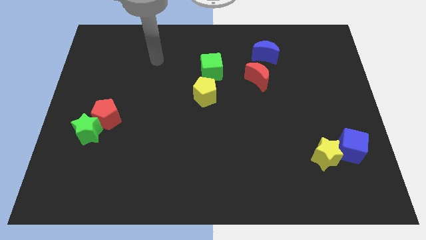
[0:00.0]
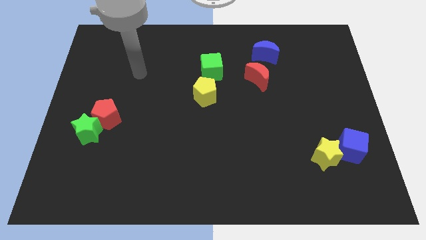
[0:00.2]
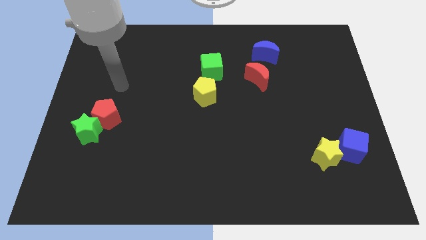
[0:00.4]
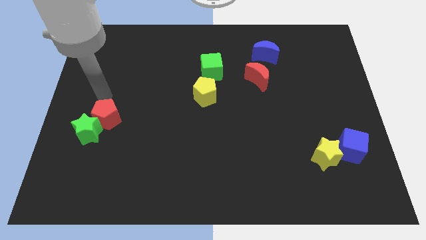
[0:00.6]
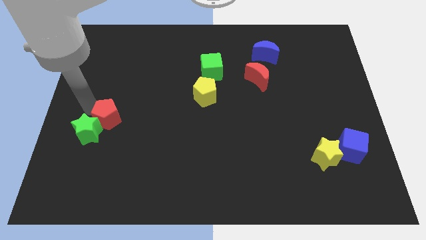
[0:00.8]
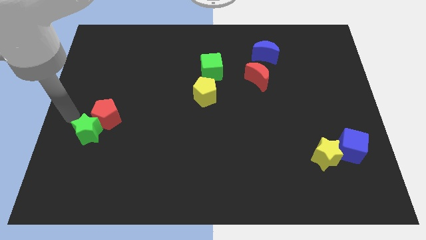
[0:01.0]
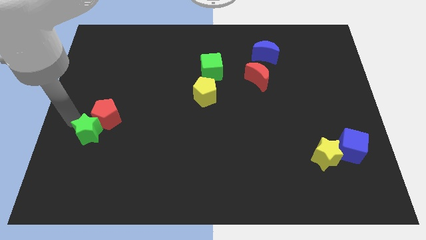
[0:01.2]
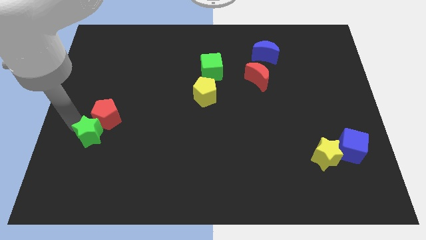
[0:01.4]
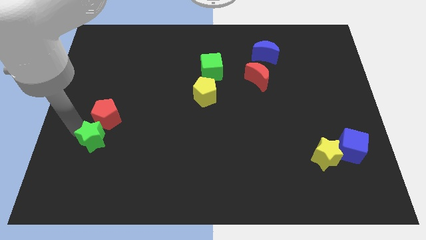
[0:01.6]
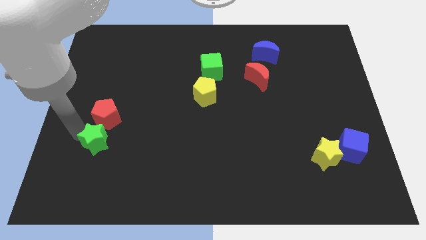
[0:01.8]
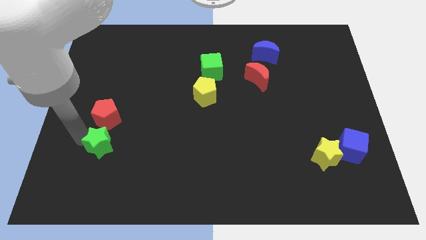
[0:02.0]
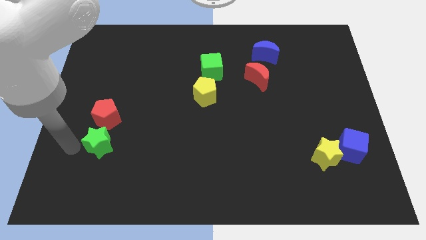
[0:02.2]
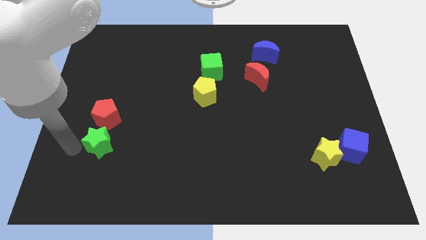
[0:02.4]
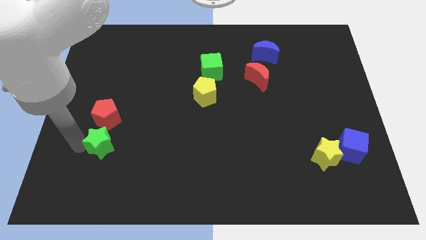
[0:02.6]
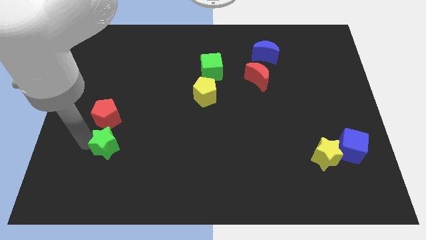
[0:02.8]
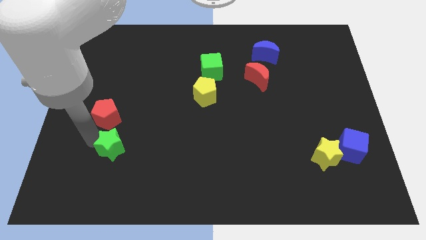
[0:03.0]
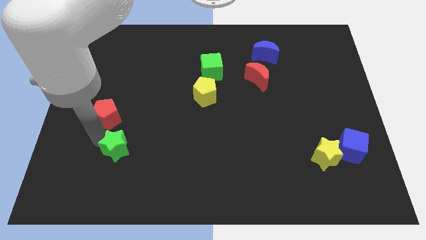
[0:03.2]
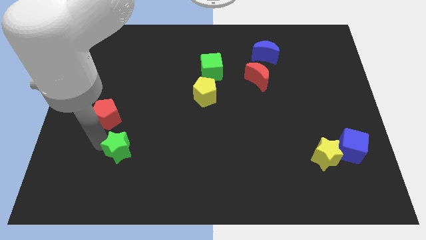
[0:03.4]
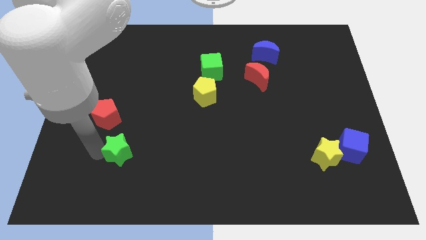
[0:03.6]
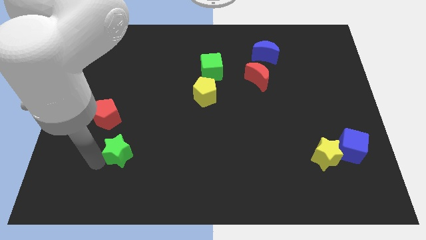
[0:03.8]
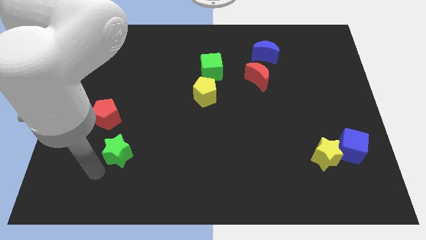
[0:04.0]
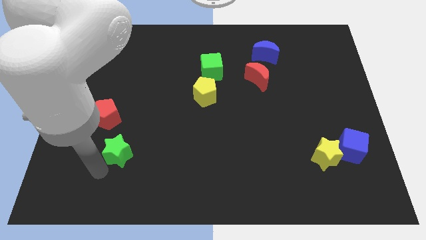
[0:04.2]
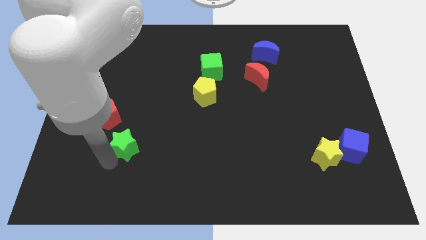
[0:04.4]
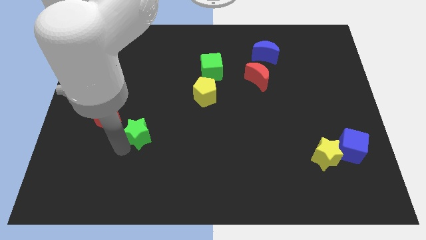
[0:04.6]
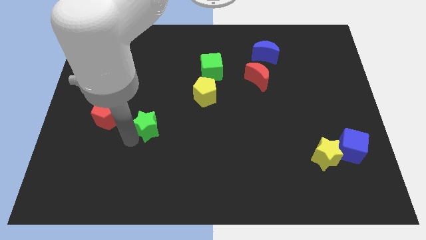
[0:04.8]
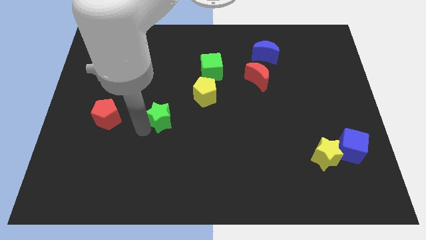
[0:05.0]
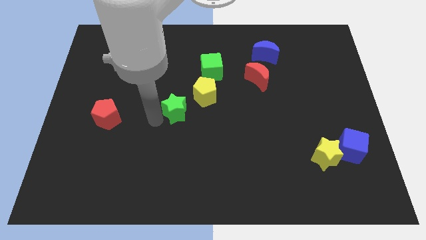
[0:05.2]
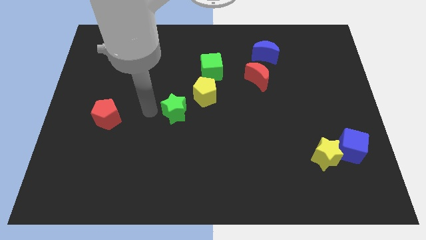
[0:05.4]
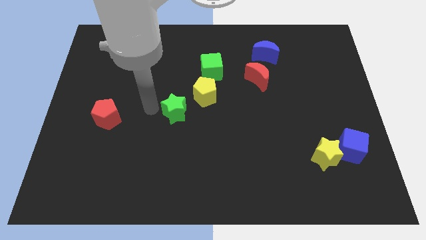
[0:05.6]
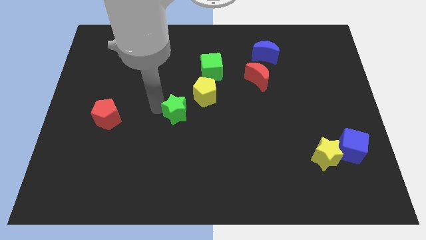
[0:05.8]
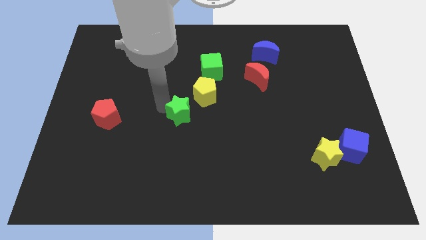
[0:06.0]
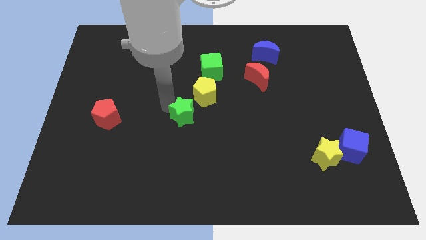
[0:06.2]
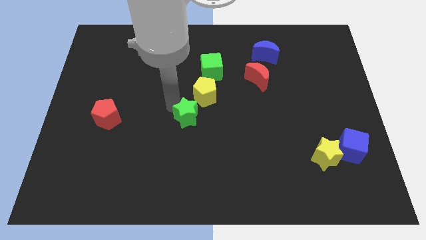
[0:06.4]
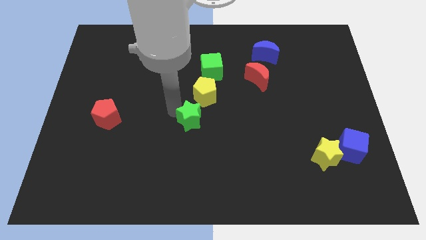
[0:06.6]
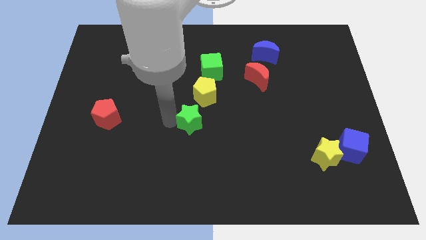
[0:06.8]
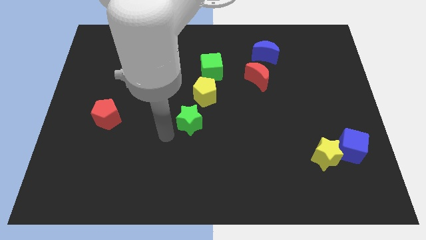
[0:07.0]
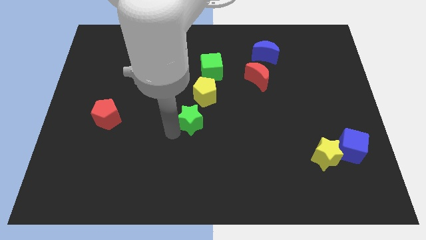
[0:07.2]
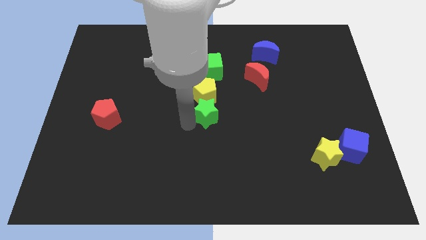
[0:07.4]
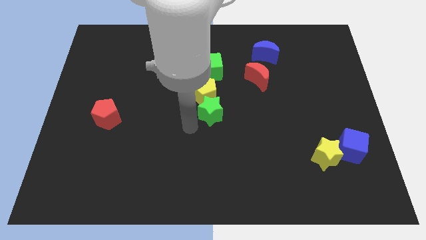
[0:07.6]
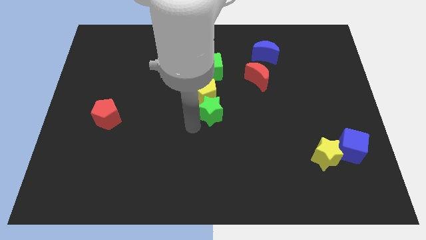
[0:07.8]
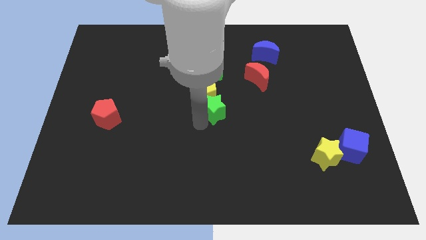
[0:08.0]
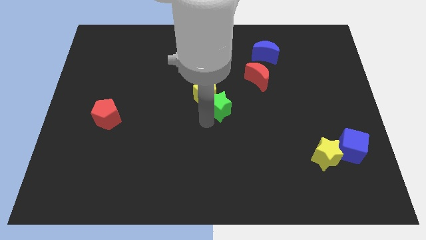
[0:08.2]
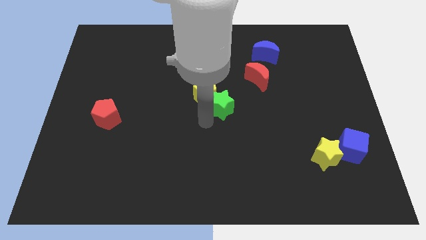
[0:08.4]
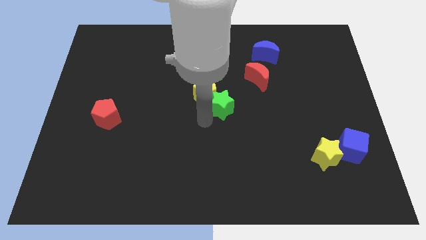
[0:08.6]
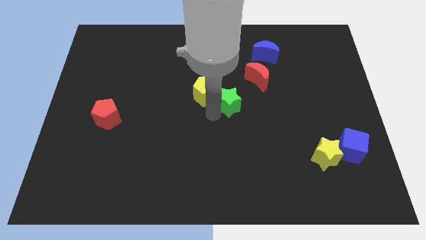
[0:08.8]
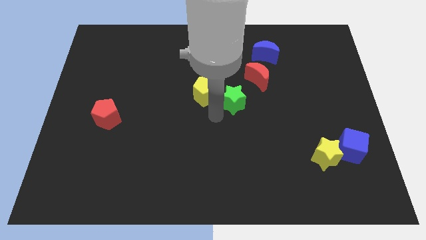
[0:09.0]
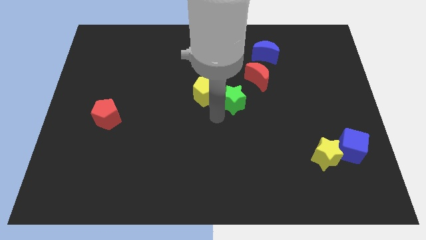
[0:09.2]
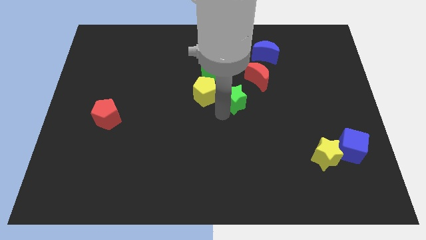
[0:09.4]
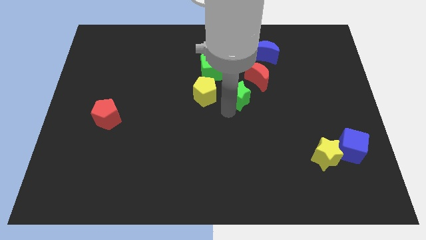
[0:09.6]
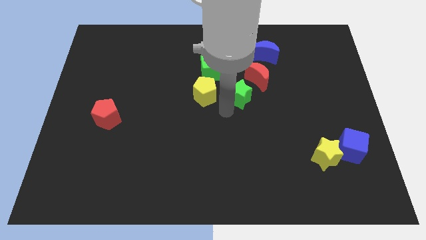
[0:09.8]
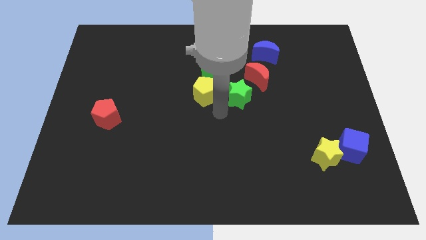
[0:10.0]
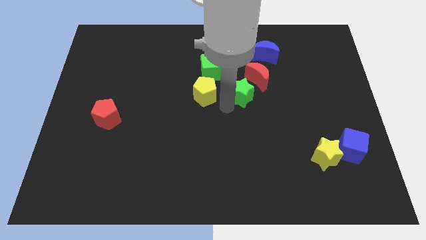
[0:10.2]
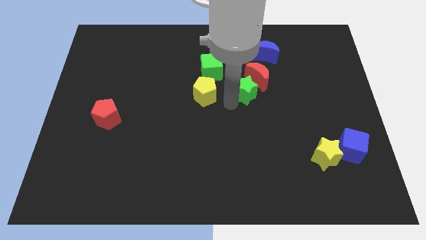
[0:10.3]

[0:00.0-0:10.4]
move the green star next to the red moon

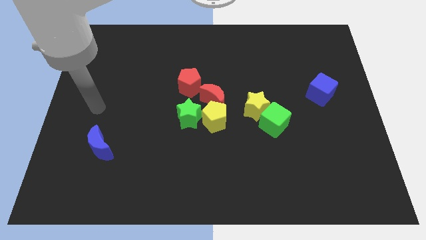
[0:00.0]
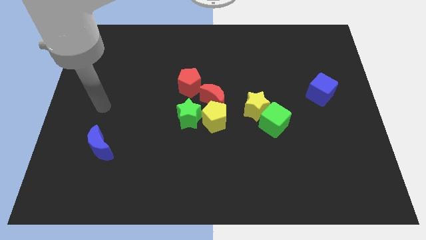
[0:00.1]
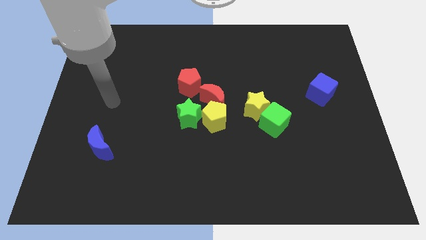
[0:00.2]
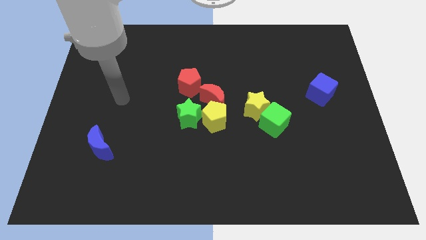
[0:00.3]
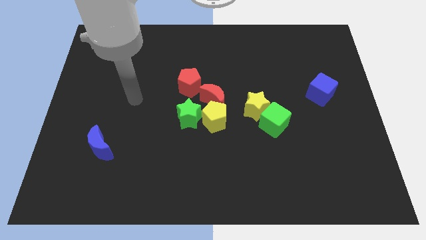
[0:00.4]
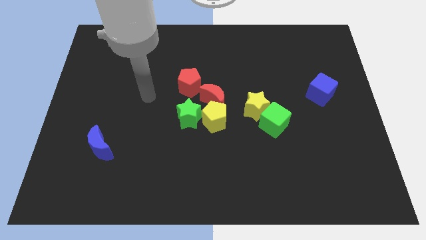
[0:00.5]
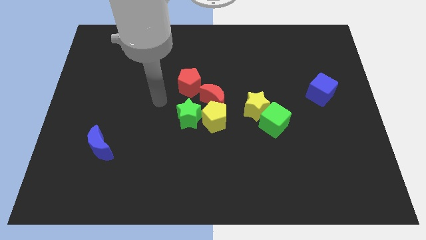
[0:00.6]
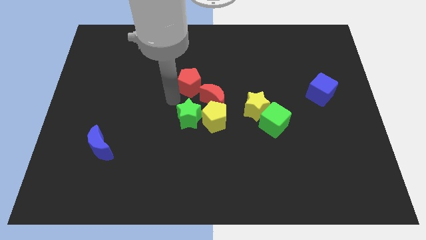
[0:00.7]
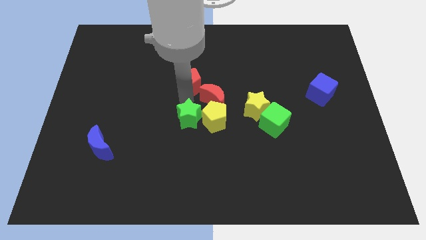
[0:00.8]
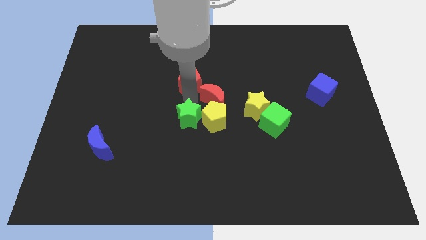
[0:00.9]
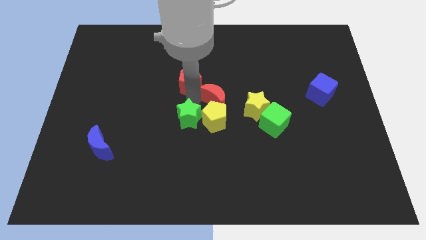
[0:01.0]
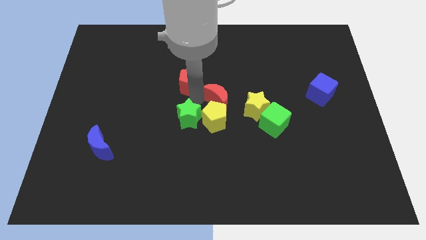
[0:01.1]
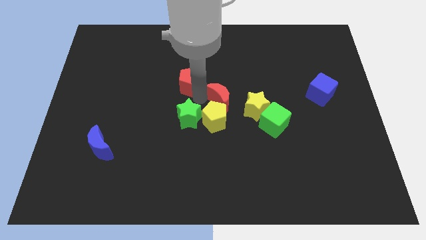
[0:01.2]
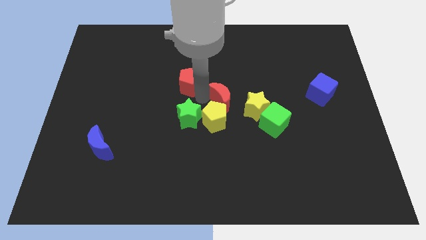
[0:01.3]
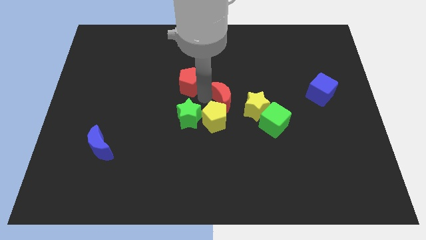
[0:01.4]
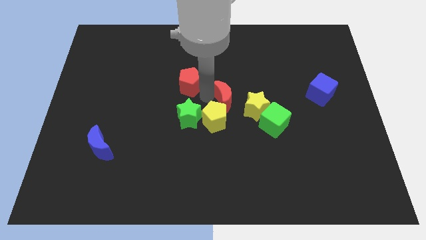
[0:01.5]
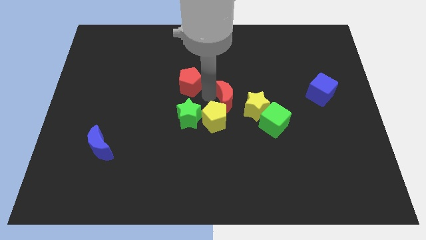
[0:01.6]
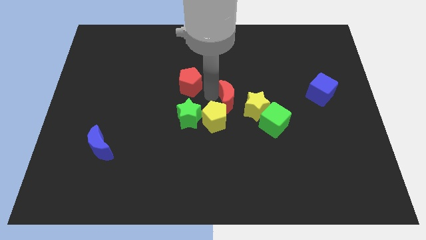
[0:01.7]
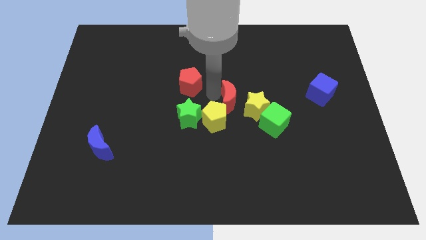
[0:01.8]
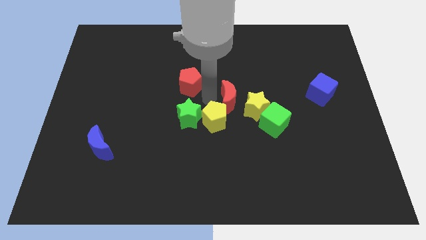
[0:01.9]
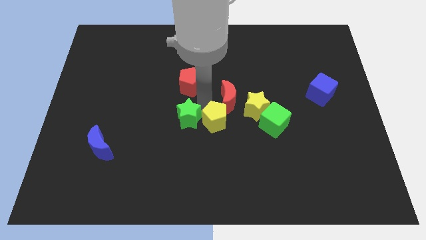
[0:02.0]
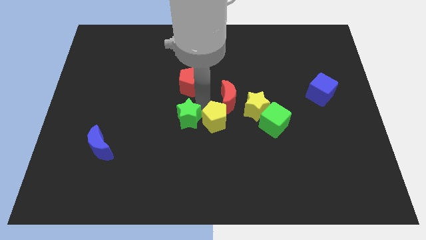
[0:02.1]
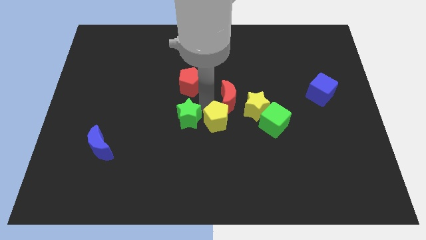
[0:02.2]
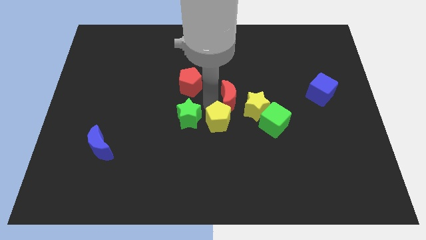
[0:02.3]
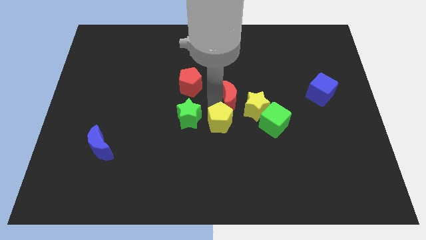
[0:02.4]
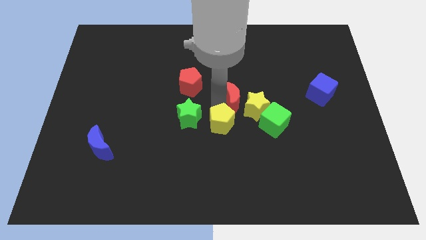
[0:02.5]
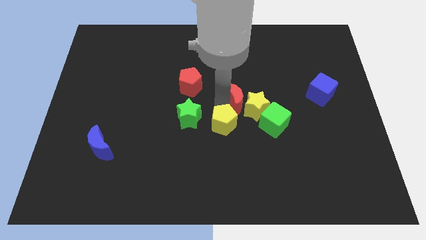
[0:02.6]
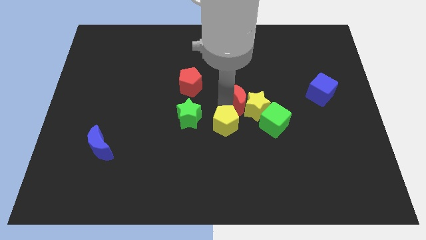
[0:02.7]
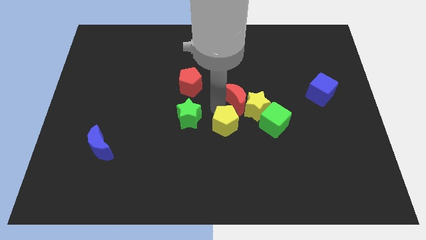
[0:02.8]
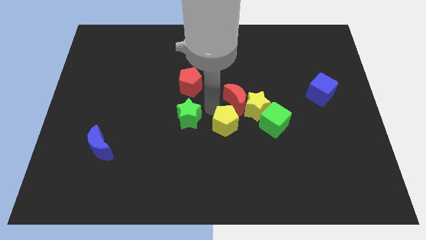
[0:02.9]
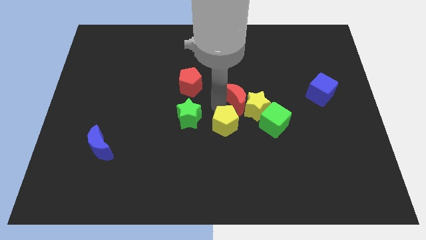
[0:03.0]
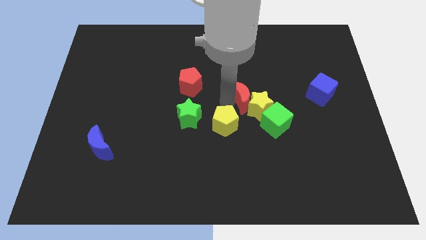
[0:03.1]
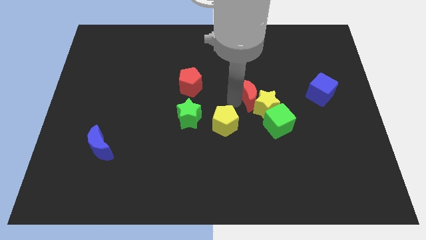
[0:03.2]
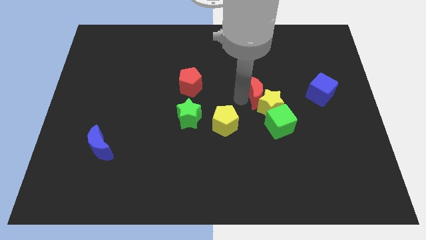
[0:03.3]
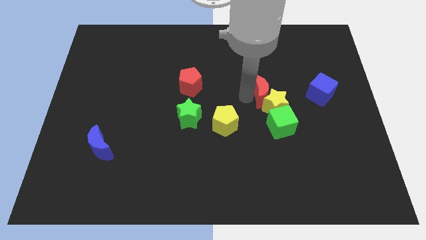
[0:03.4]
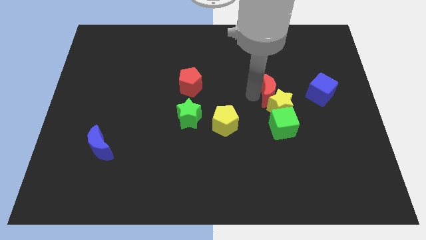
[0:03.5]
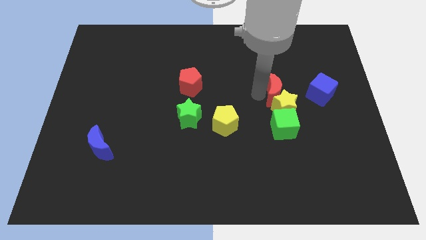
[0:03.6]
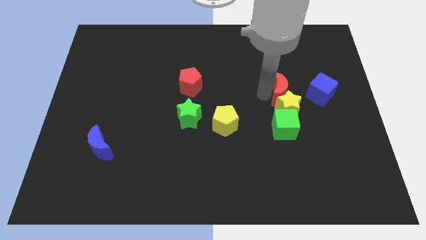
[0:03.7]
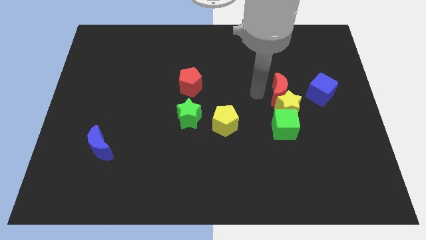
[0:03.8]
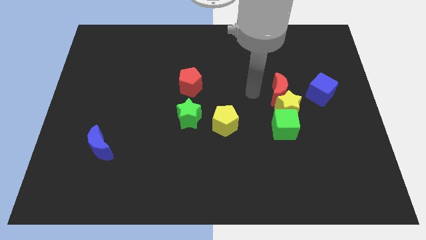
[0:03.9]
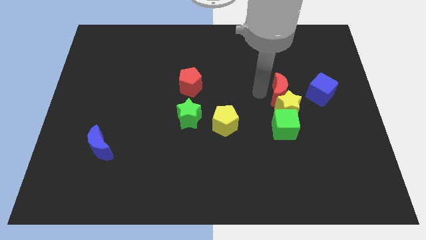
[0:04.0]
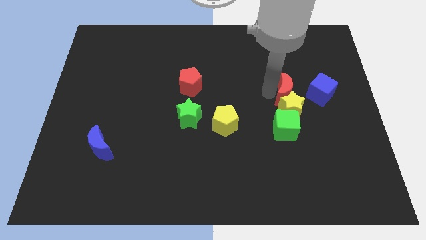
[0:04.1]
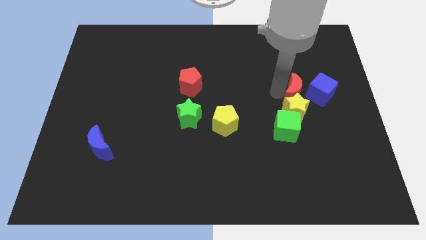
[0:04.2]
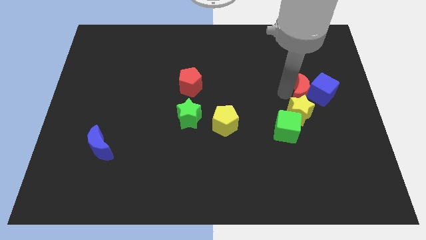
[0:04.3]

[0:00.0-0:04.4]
push the red moon towards the blue cube
